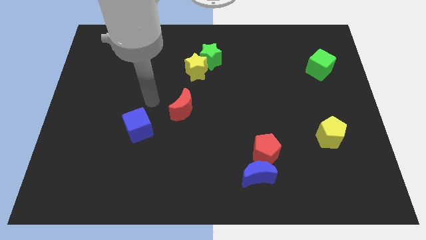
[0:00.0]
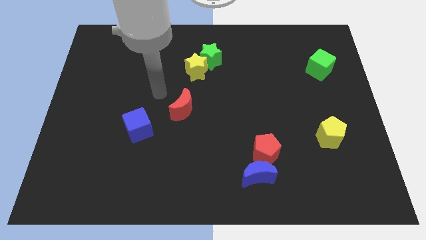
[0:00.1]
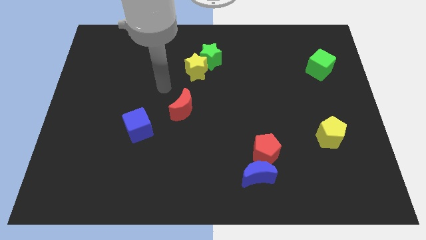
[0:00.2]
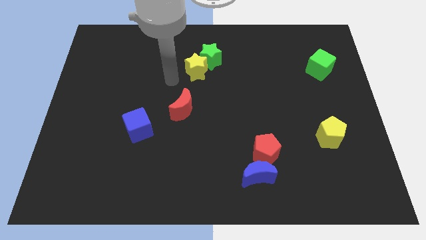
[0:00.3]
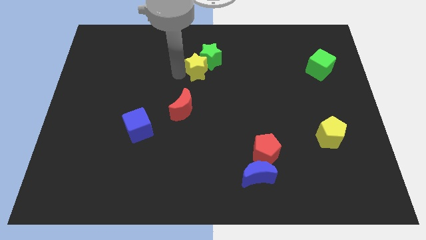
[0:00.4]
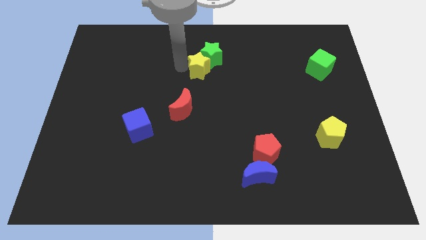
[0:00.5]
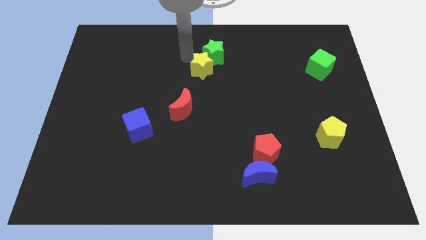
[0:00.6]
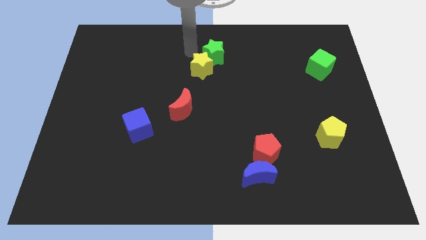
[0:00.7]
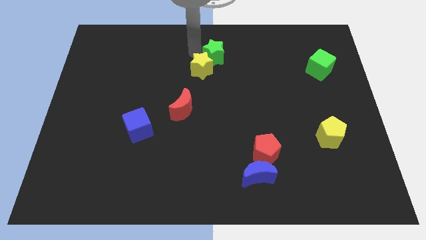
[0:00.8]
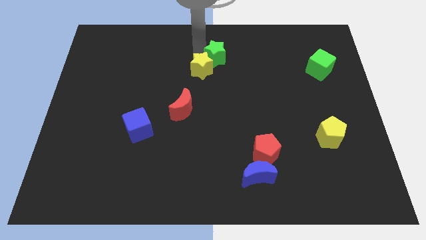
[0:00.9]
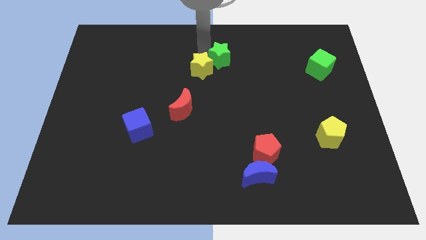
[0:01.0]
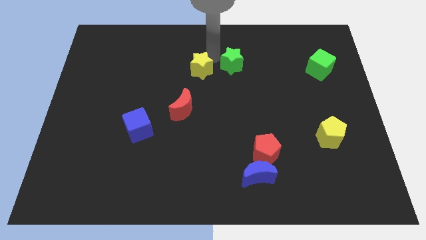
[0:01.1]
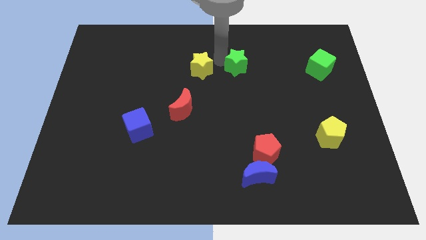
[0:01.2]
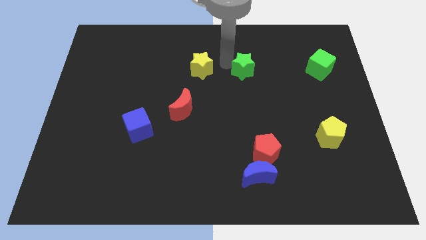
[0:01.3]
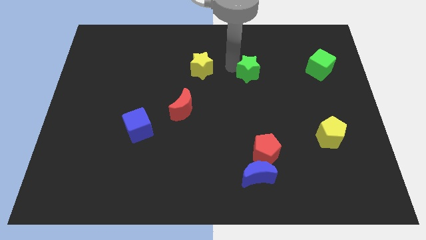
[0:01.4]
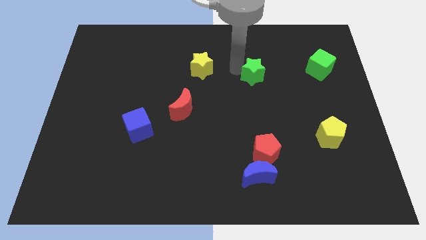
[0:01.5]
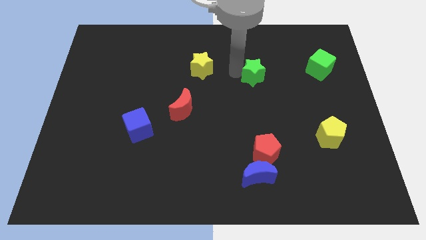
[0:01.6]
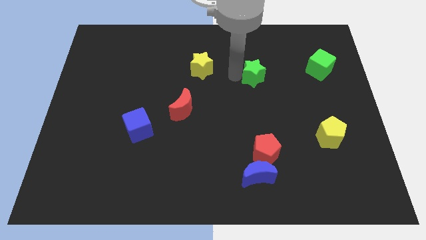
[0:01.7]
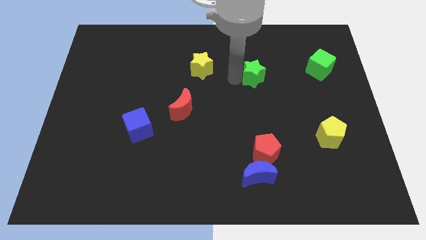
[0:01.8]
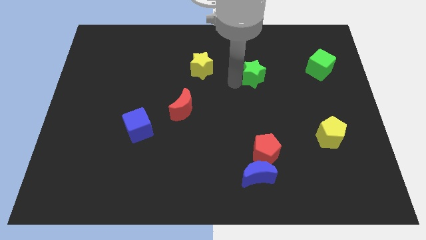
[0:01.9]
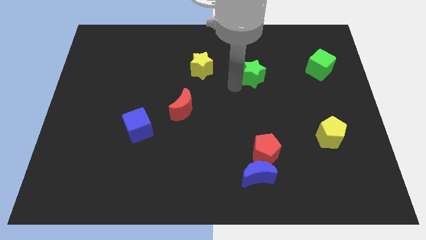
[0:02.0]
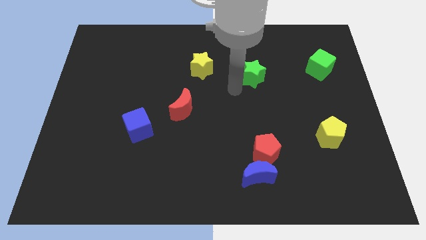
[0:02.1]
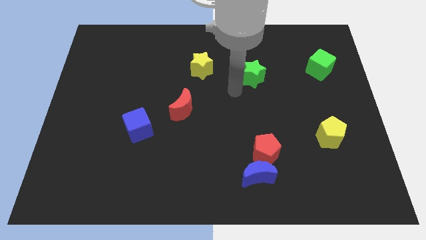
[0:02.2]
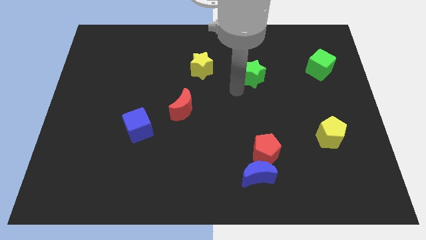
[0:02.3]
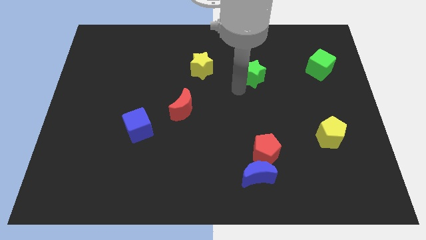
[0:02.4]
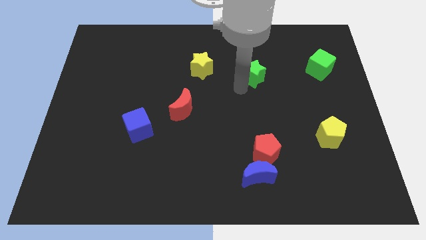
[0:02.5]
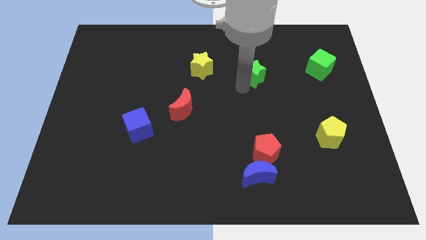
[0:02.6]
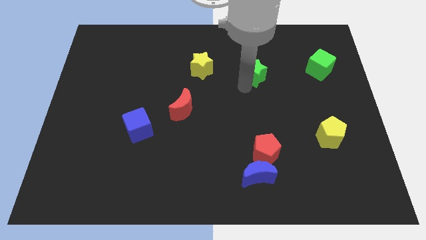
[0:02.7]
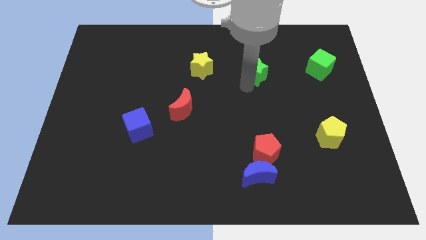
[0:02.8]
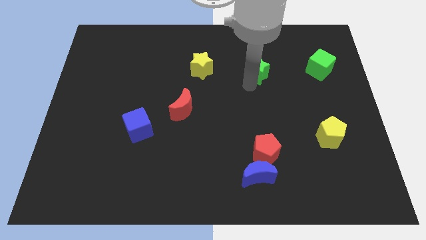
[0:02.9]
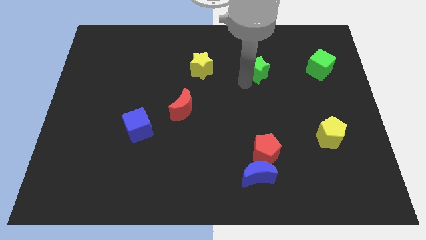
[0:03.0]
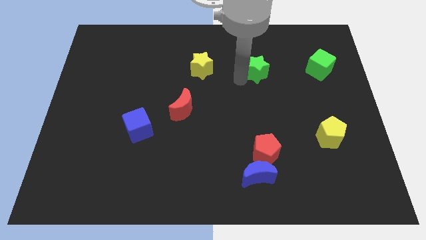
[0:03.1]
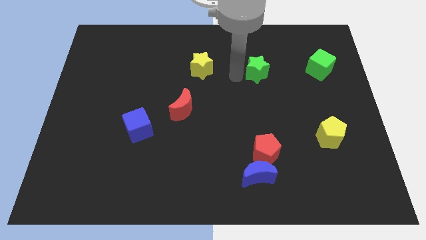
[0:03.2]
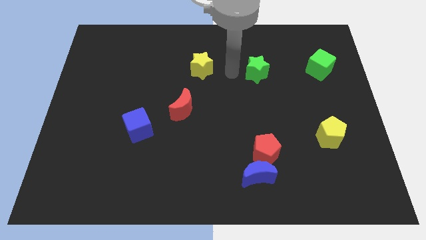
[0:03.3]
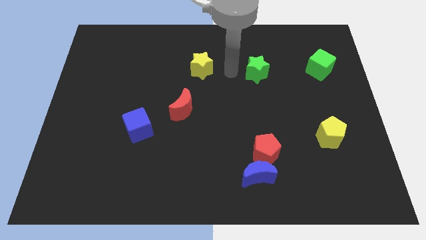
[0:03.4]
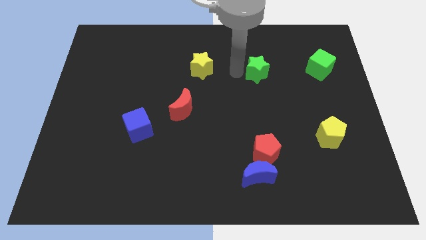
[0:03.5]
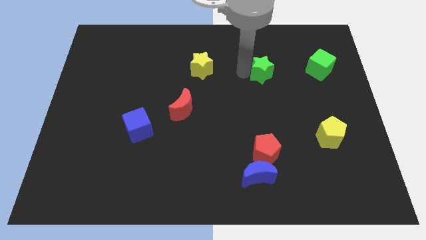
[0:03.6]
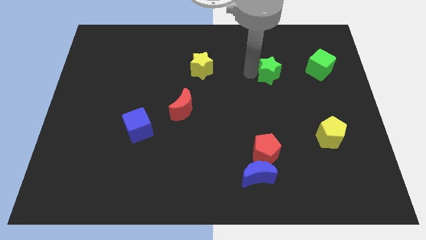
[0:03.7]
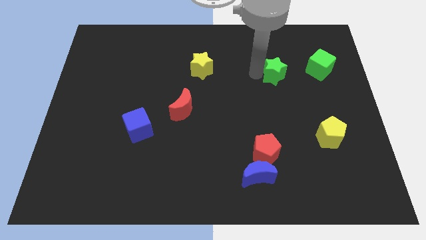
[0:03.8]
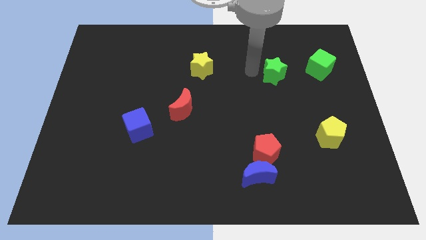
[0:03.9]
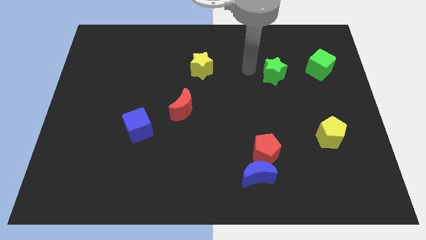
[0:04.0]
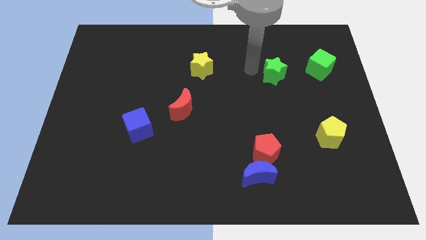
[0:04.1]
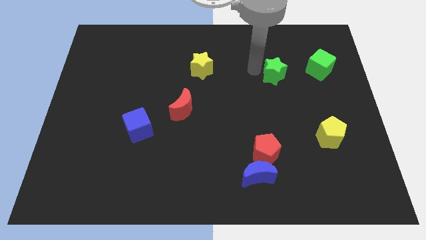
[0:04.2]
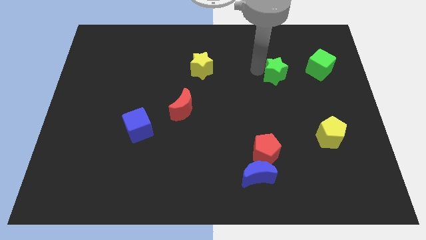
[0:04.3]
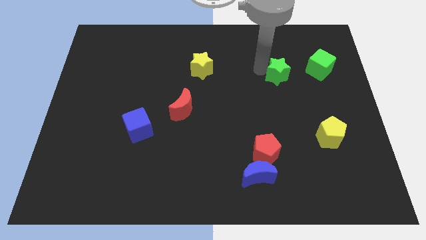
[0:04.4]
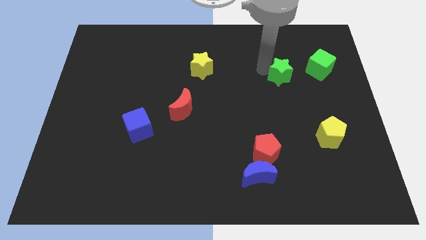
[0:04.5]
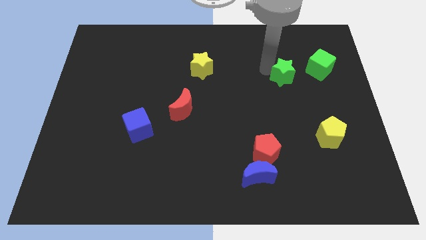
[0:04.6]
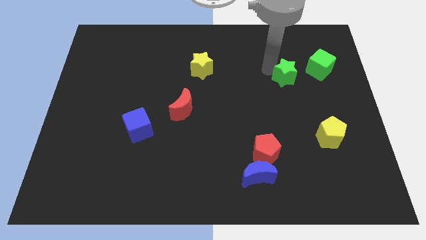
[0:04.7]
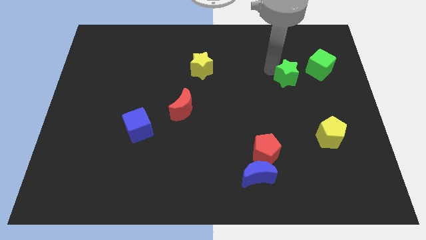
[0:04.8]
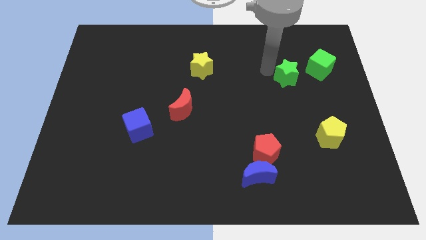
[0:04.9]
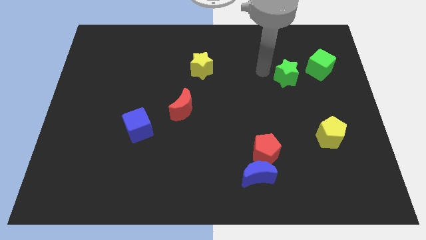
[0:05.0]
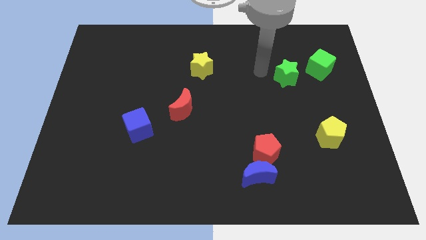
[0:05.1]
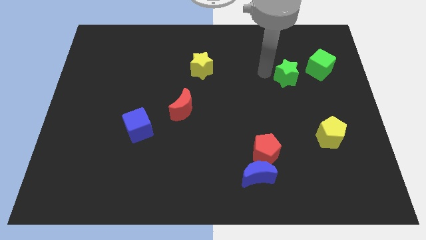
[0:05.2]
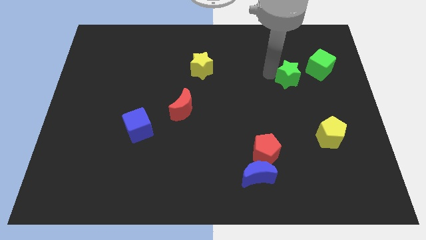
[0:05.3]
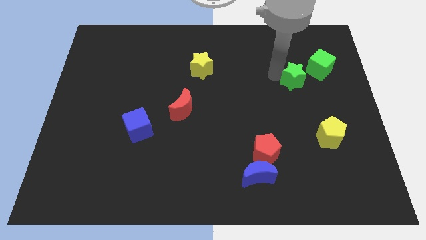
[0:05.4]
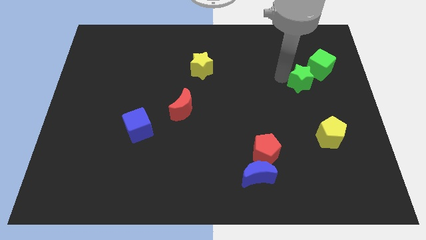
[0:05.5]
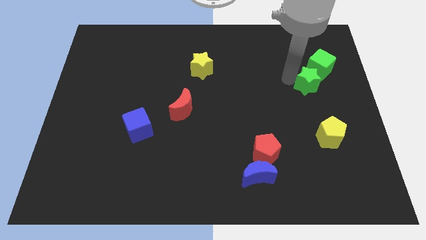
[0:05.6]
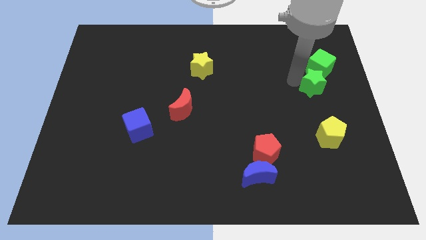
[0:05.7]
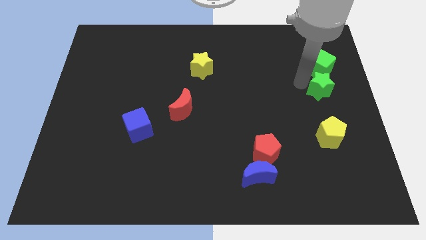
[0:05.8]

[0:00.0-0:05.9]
slide the green star to the center right

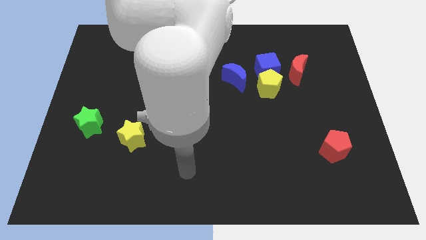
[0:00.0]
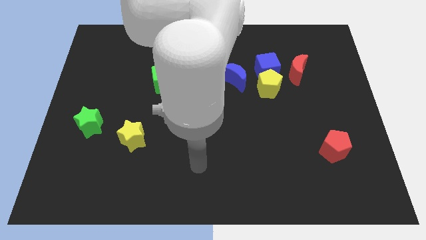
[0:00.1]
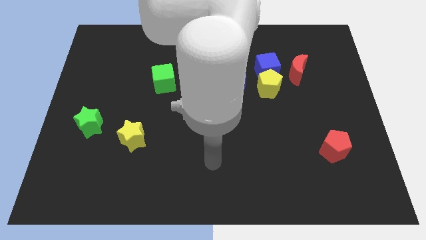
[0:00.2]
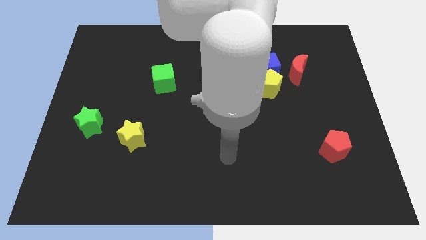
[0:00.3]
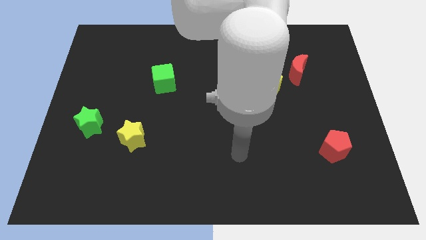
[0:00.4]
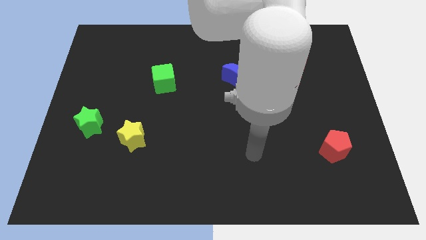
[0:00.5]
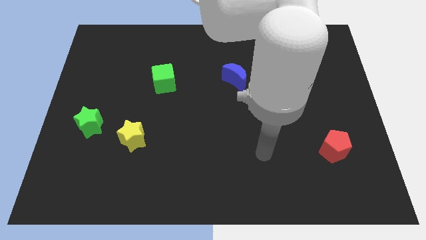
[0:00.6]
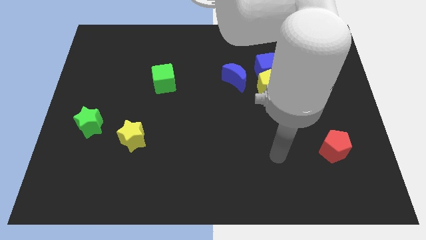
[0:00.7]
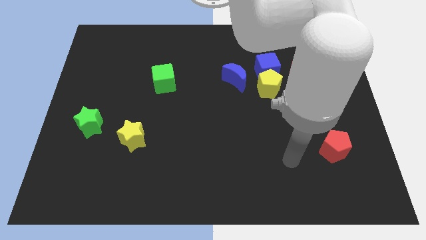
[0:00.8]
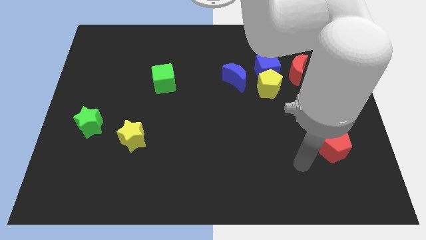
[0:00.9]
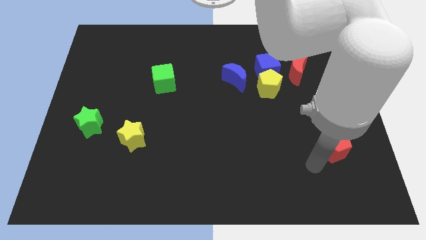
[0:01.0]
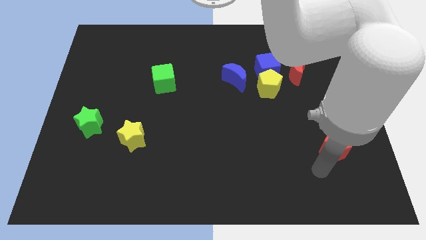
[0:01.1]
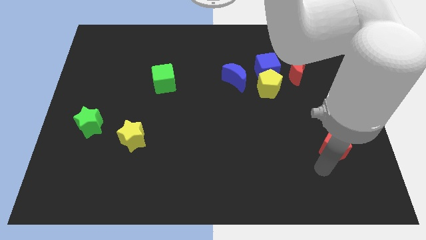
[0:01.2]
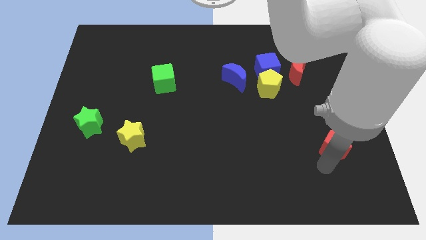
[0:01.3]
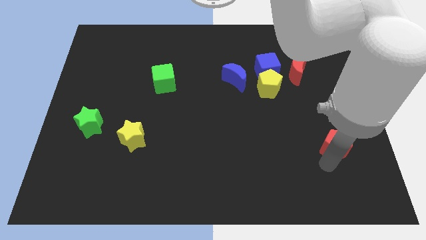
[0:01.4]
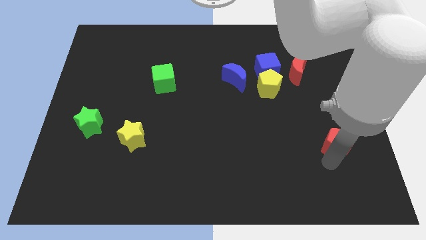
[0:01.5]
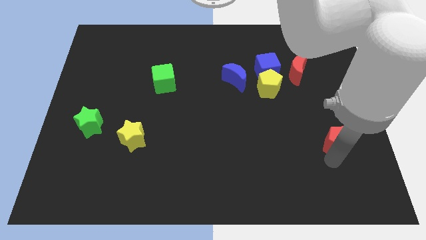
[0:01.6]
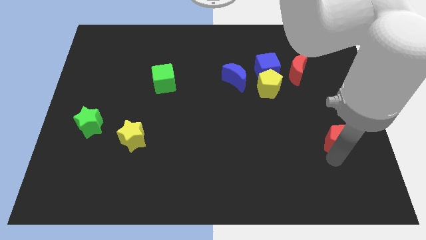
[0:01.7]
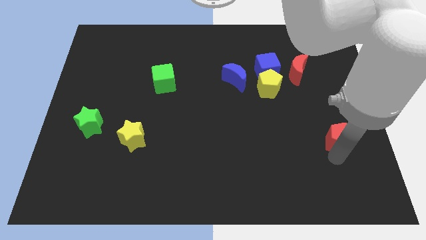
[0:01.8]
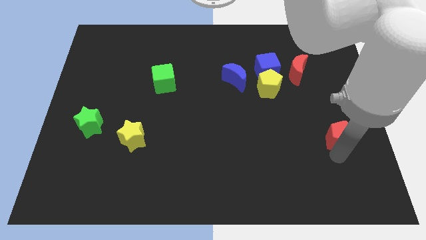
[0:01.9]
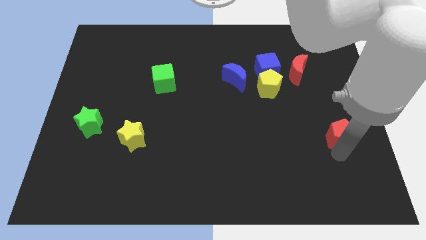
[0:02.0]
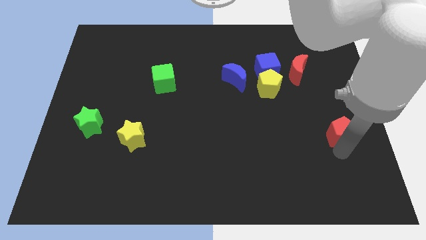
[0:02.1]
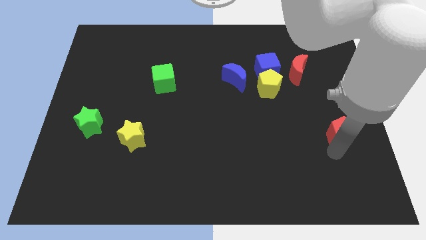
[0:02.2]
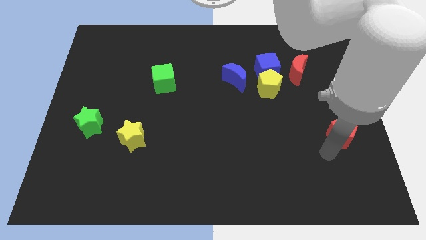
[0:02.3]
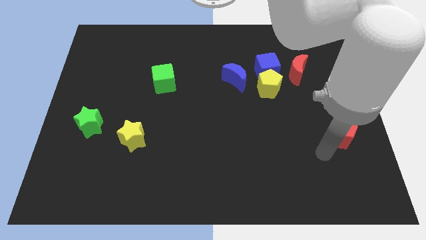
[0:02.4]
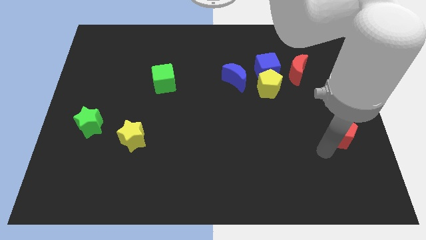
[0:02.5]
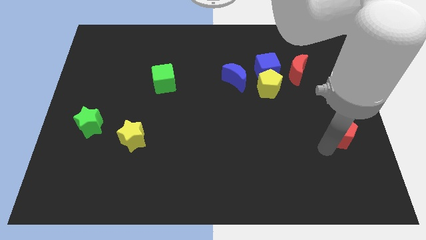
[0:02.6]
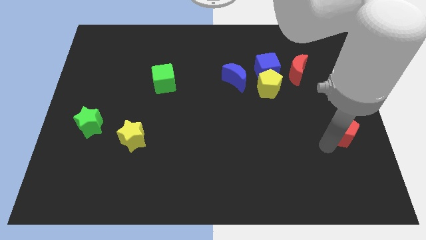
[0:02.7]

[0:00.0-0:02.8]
push the red pentagon to the right side of the board
